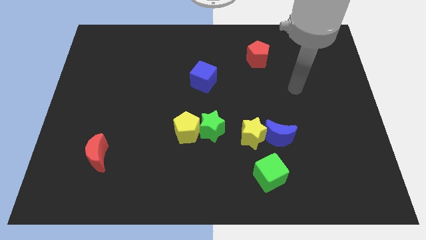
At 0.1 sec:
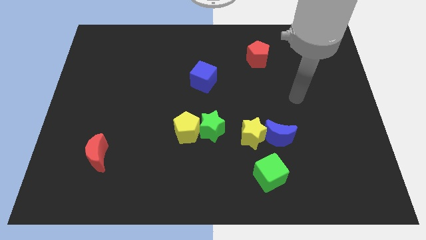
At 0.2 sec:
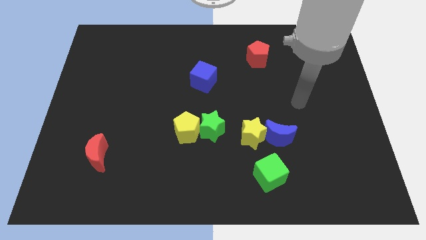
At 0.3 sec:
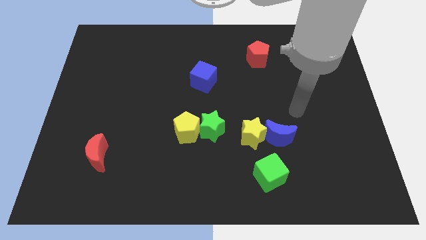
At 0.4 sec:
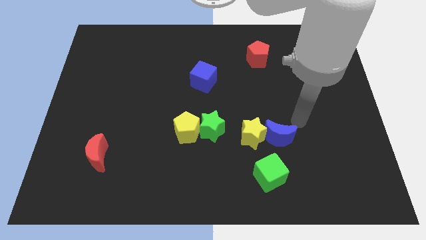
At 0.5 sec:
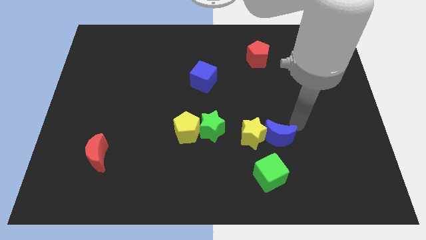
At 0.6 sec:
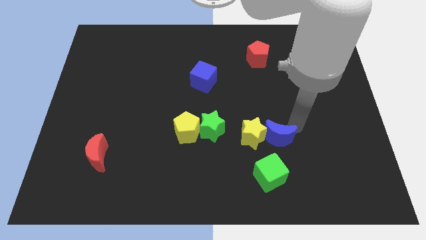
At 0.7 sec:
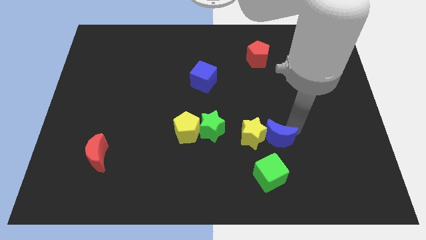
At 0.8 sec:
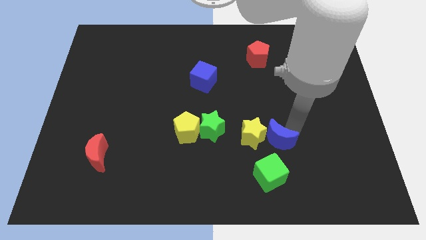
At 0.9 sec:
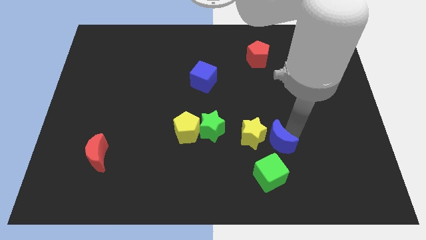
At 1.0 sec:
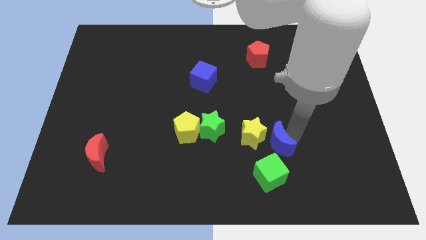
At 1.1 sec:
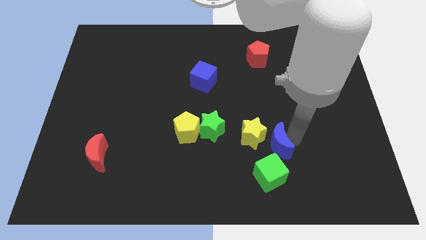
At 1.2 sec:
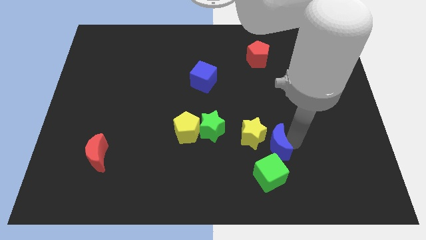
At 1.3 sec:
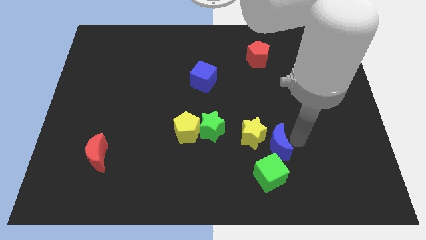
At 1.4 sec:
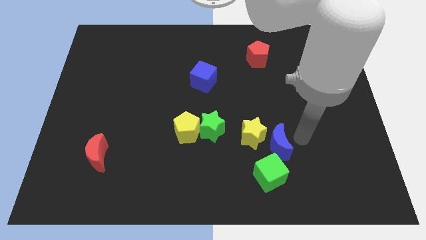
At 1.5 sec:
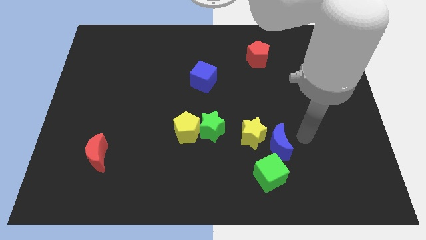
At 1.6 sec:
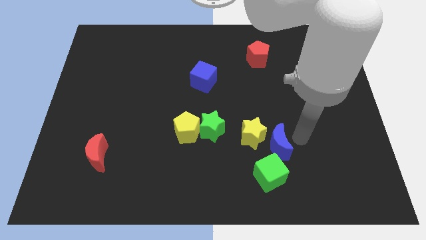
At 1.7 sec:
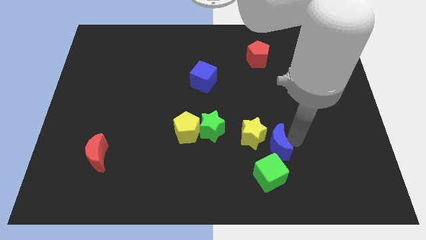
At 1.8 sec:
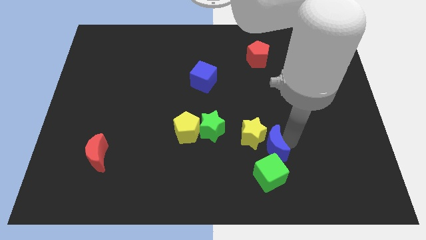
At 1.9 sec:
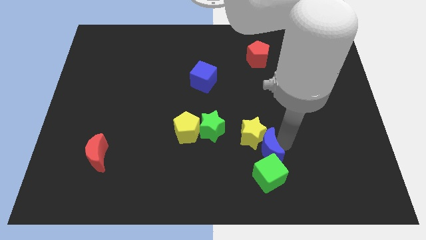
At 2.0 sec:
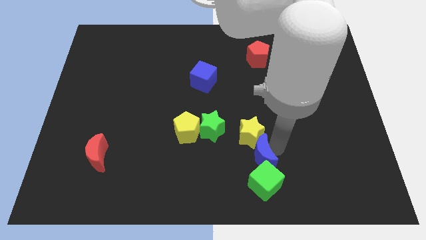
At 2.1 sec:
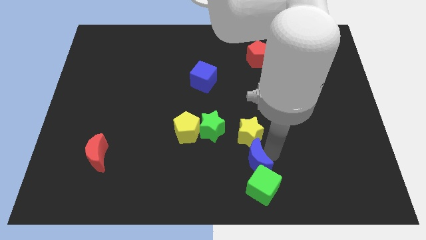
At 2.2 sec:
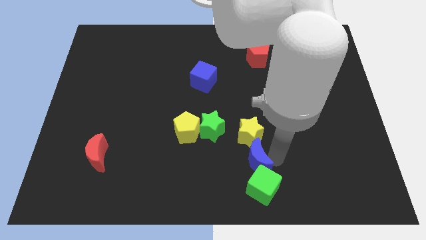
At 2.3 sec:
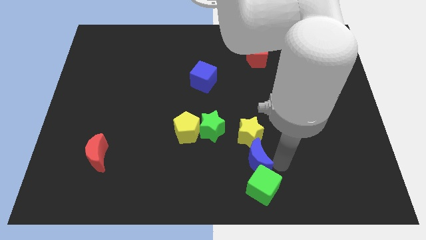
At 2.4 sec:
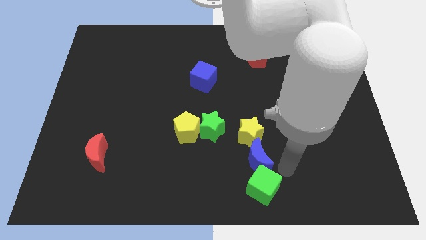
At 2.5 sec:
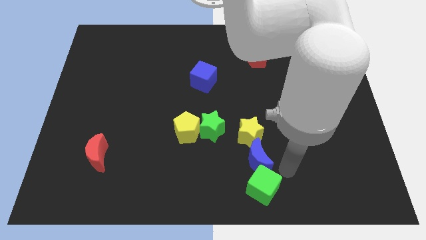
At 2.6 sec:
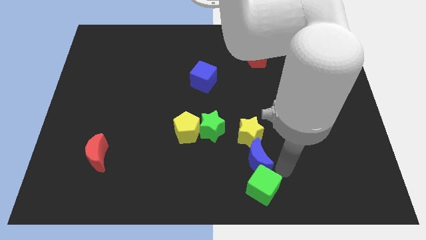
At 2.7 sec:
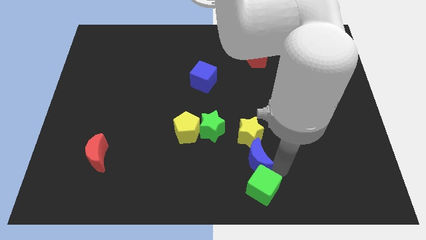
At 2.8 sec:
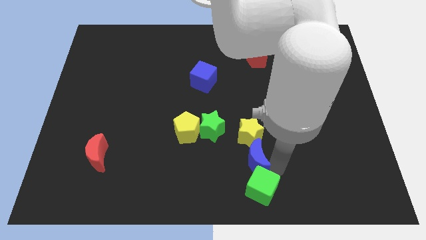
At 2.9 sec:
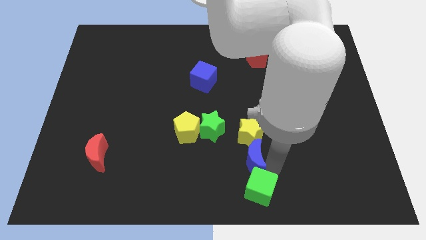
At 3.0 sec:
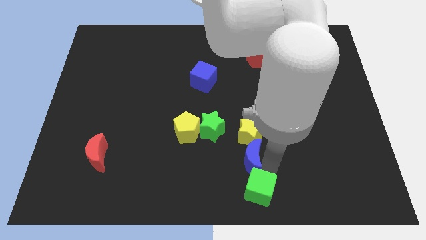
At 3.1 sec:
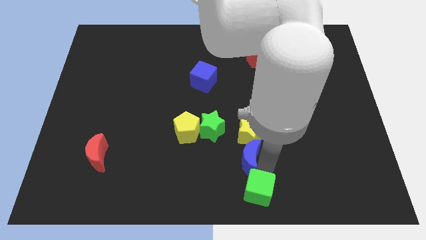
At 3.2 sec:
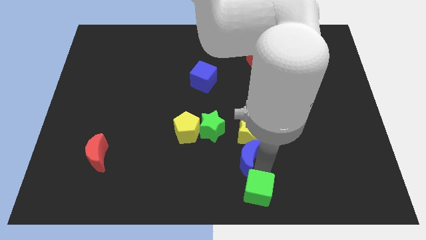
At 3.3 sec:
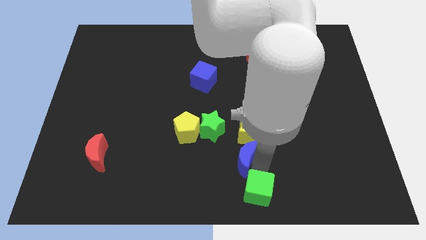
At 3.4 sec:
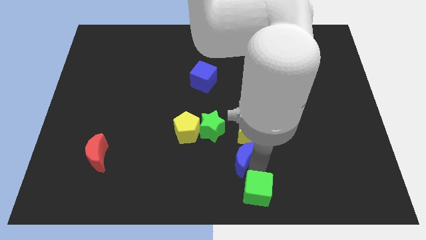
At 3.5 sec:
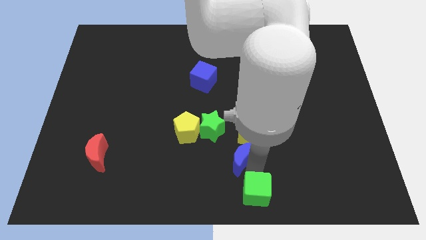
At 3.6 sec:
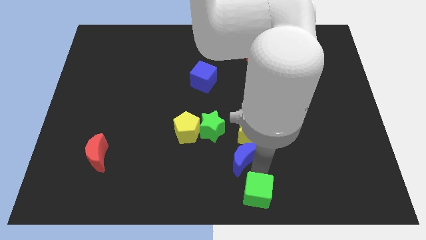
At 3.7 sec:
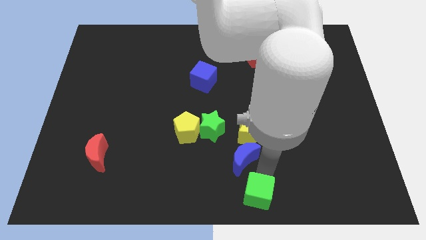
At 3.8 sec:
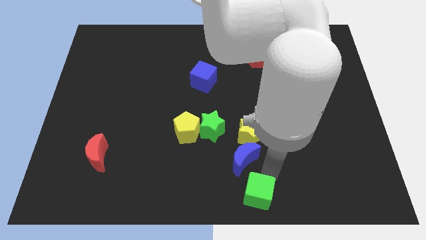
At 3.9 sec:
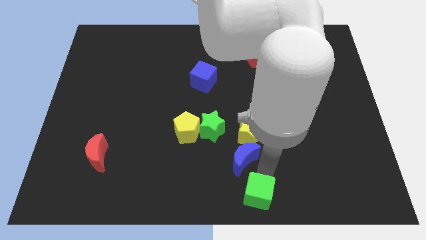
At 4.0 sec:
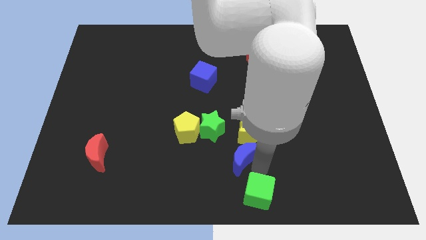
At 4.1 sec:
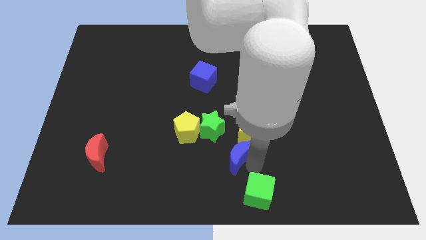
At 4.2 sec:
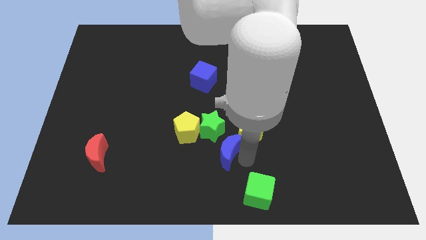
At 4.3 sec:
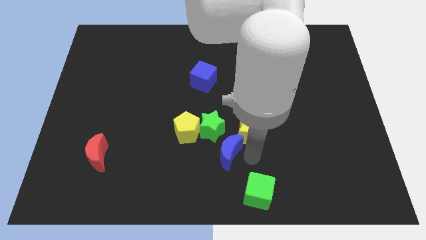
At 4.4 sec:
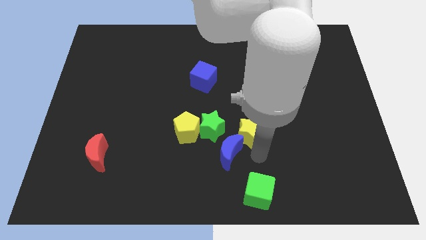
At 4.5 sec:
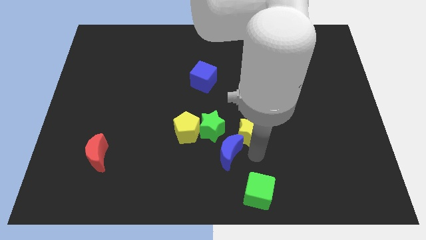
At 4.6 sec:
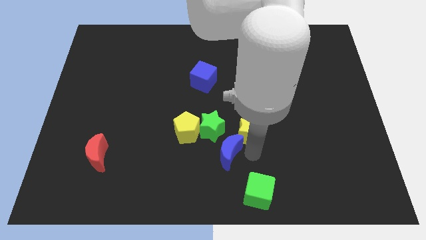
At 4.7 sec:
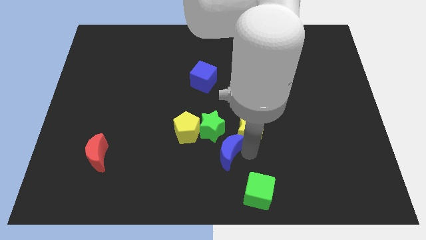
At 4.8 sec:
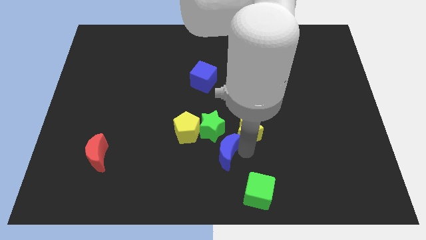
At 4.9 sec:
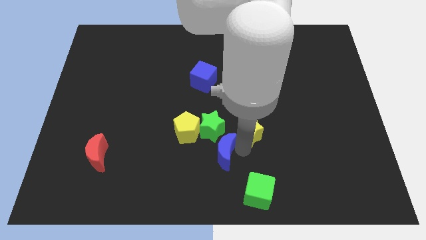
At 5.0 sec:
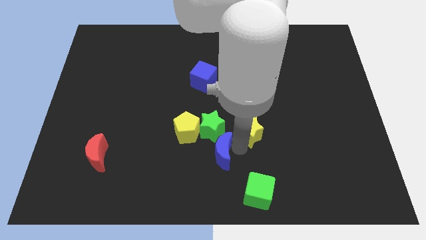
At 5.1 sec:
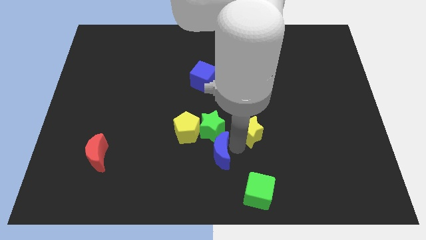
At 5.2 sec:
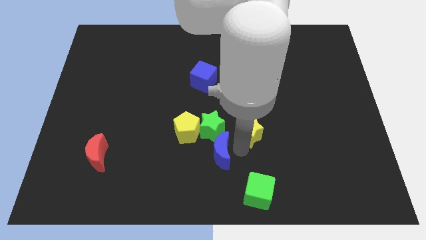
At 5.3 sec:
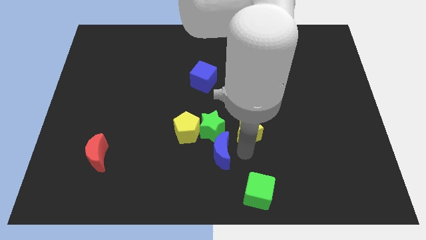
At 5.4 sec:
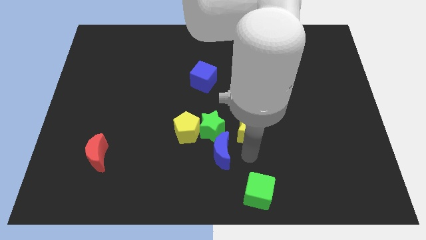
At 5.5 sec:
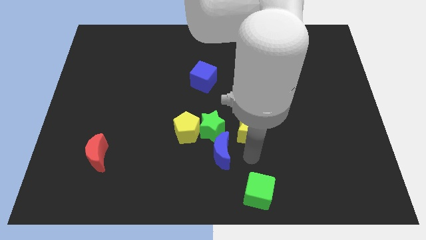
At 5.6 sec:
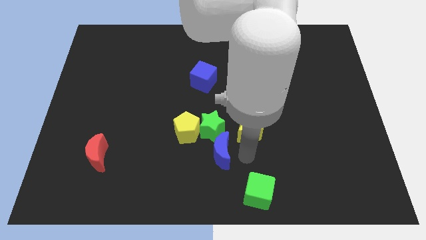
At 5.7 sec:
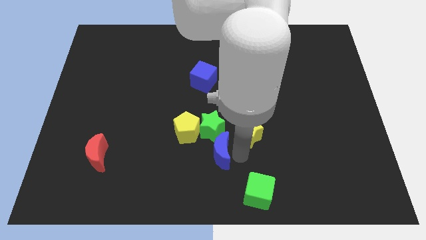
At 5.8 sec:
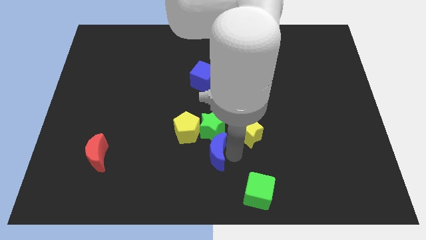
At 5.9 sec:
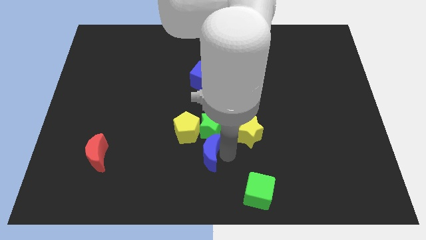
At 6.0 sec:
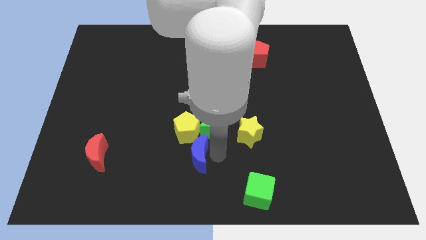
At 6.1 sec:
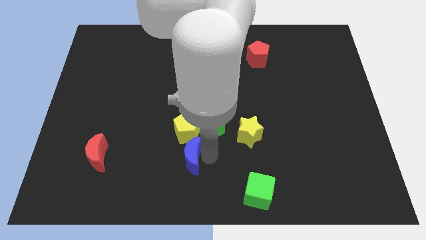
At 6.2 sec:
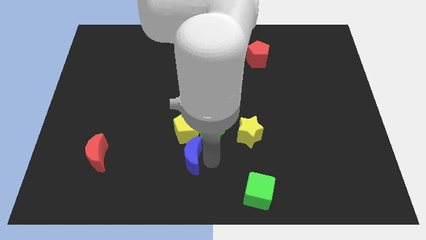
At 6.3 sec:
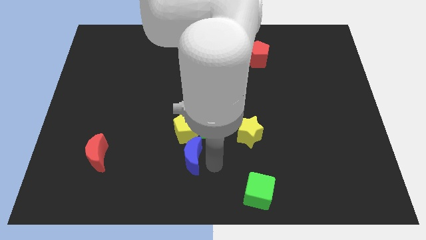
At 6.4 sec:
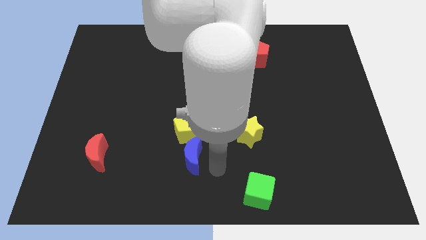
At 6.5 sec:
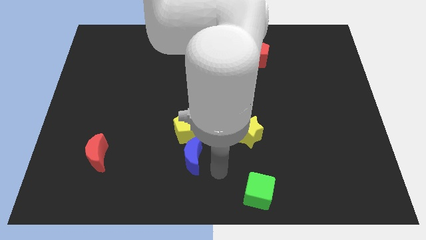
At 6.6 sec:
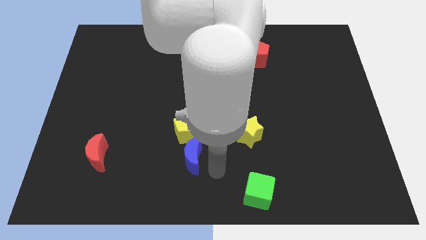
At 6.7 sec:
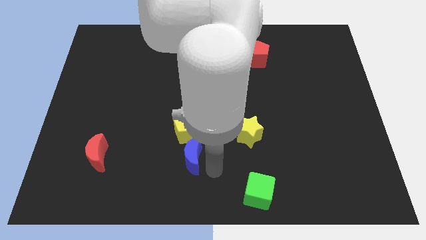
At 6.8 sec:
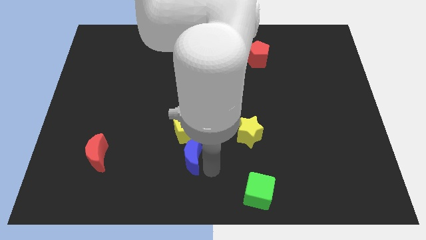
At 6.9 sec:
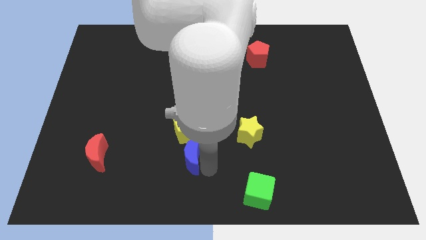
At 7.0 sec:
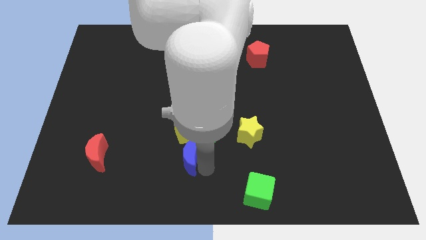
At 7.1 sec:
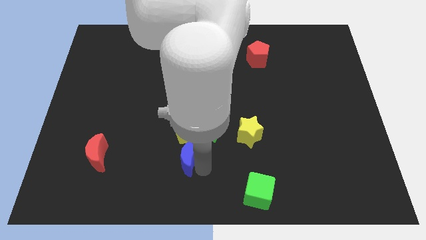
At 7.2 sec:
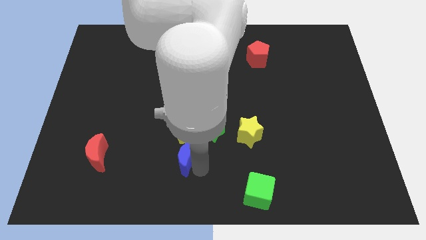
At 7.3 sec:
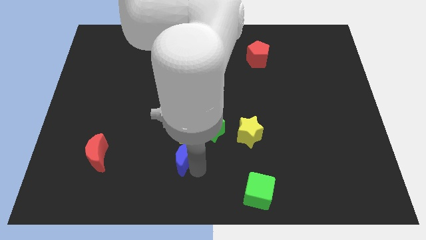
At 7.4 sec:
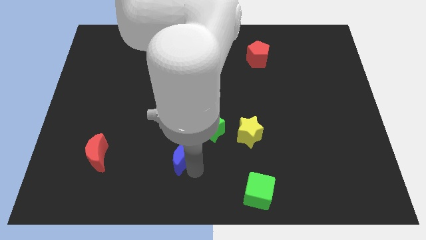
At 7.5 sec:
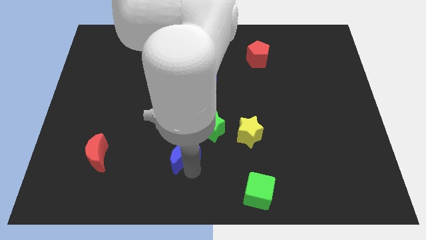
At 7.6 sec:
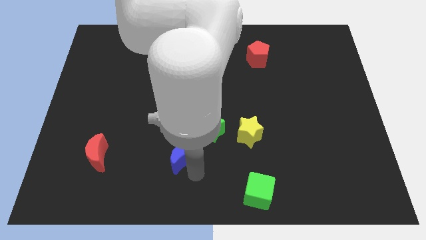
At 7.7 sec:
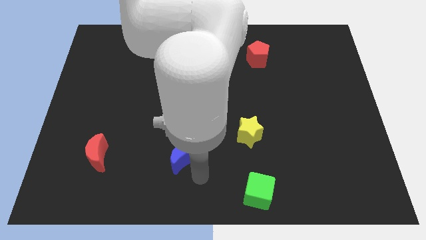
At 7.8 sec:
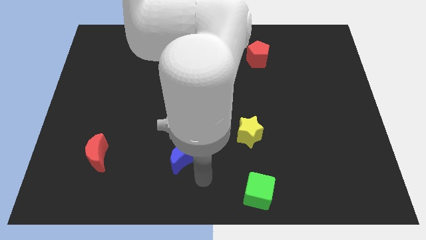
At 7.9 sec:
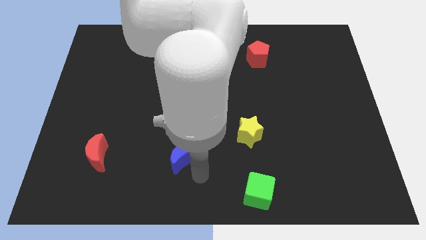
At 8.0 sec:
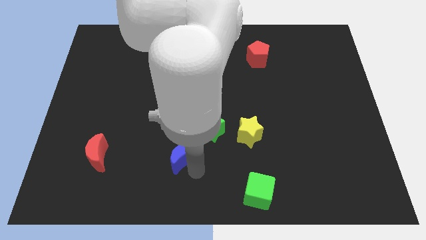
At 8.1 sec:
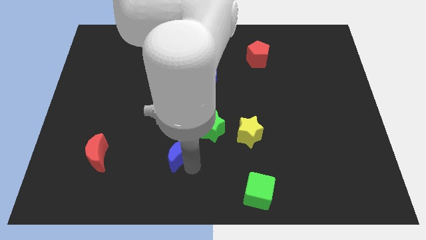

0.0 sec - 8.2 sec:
move the blue moon left
